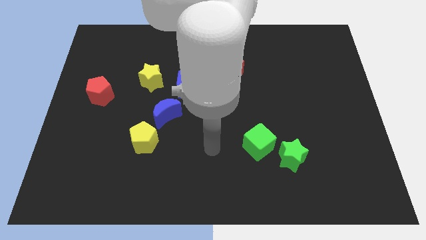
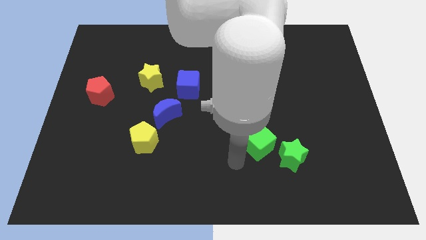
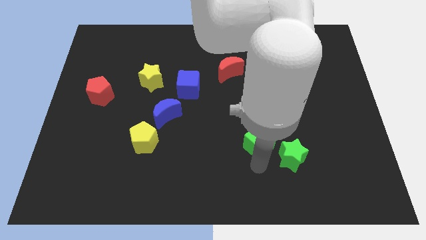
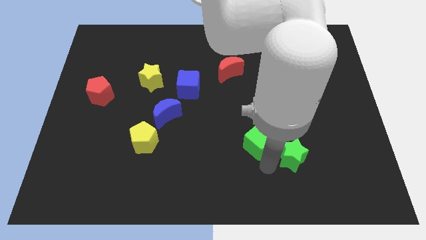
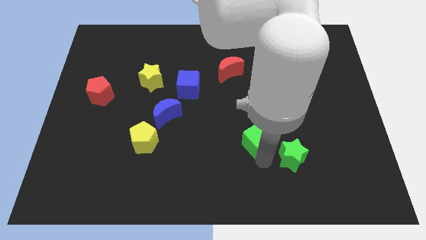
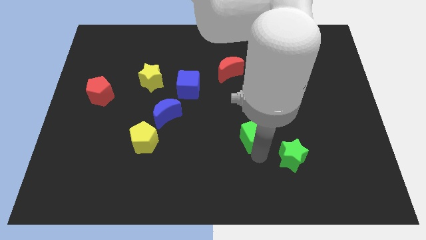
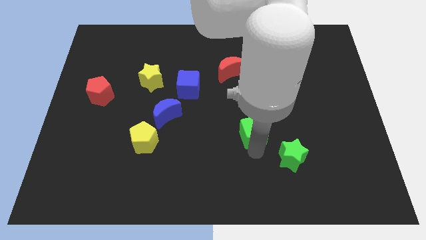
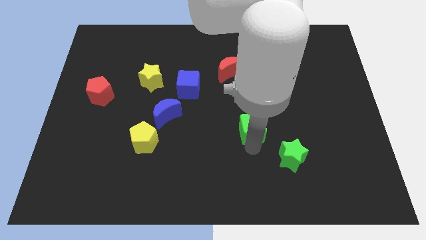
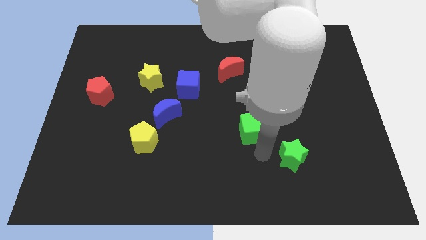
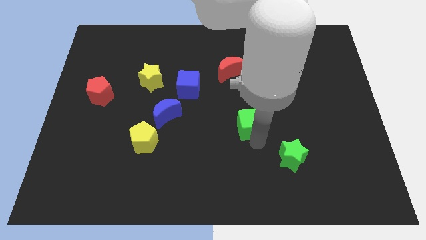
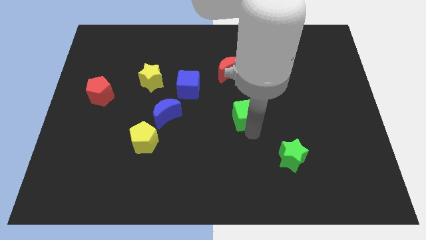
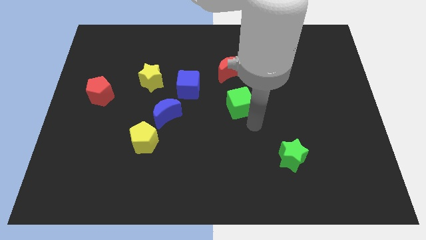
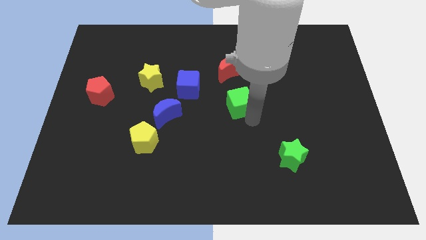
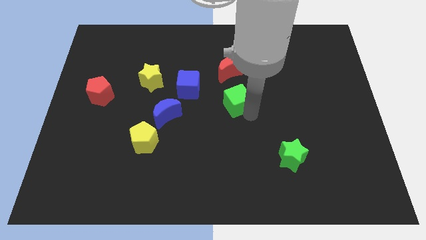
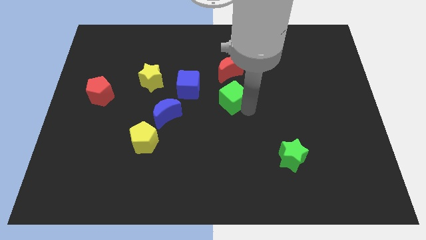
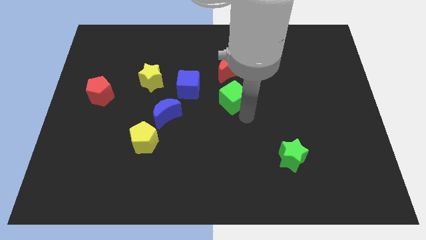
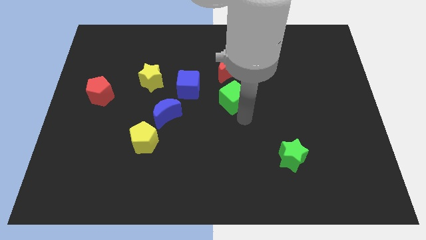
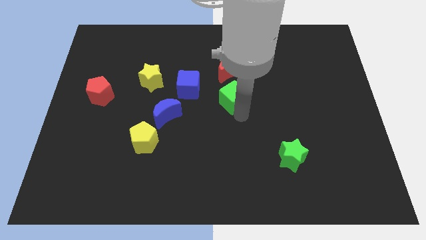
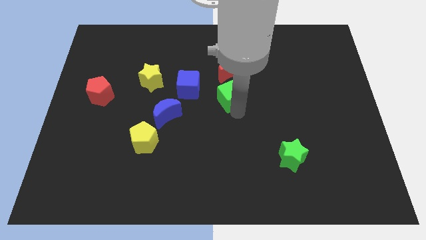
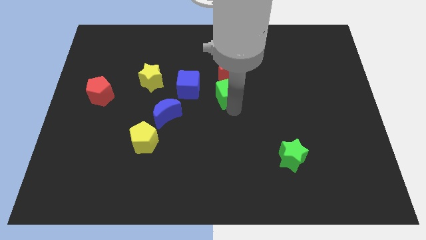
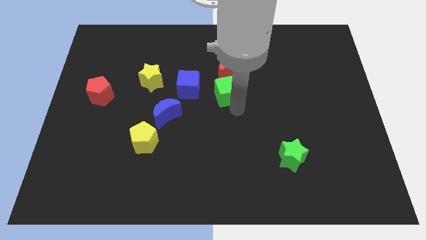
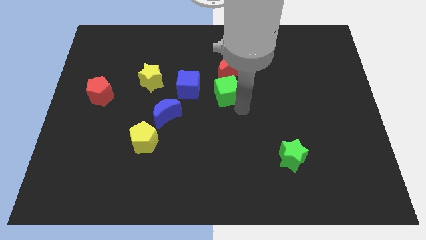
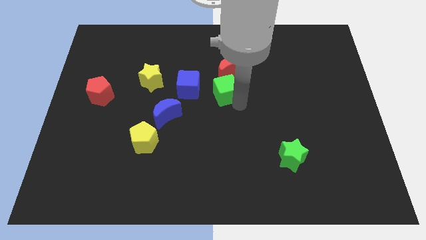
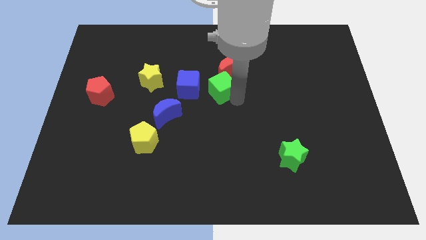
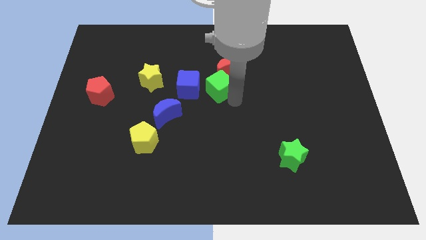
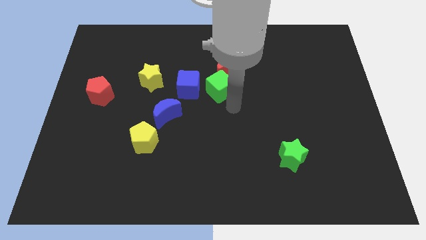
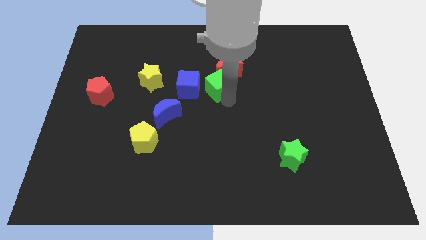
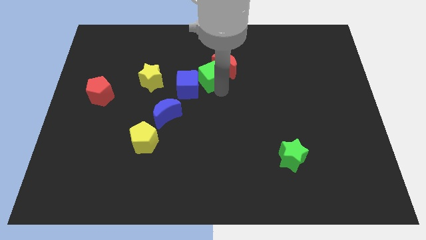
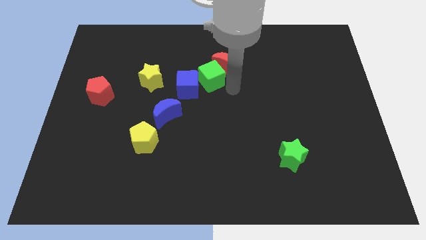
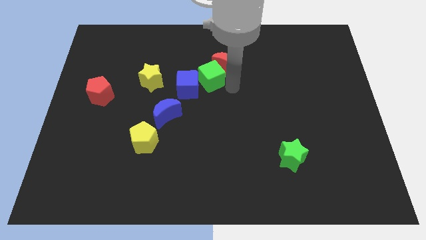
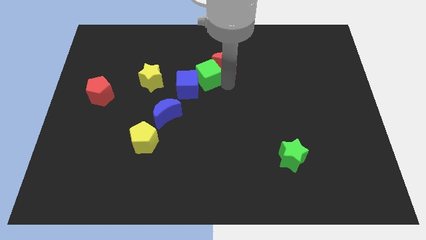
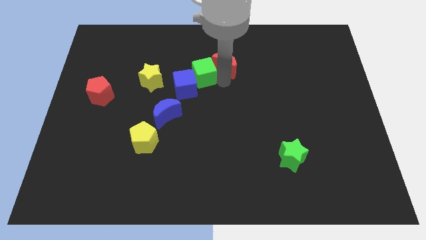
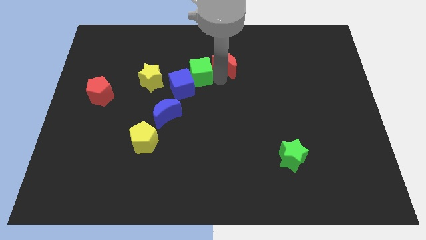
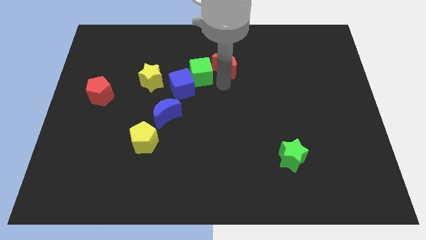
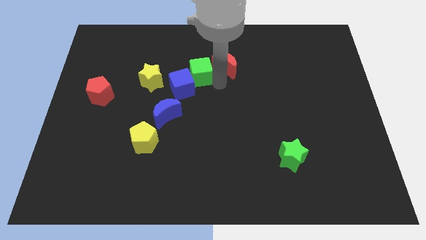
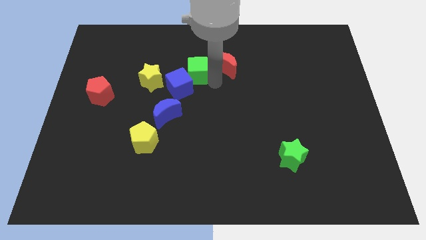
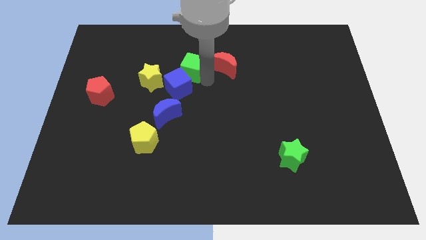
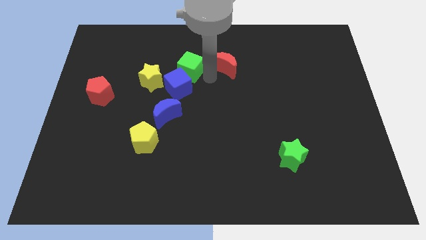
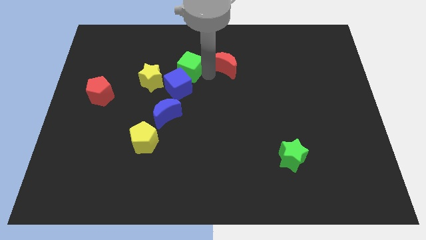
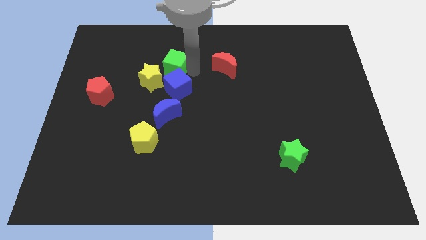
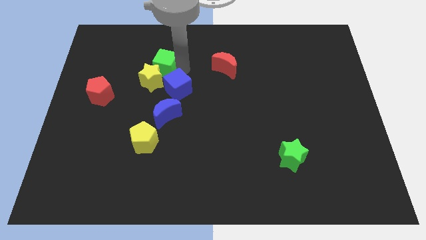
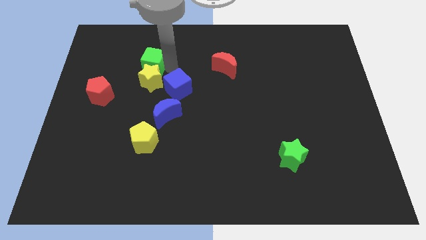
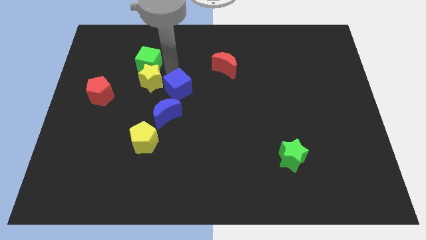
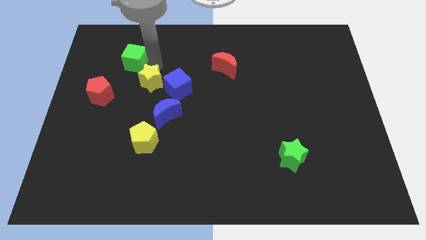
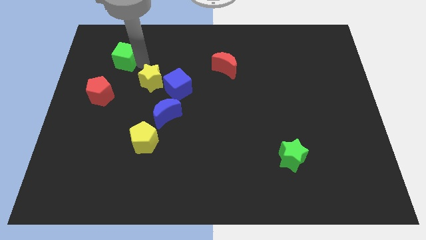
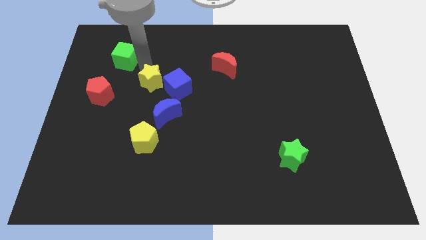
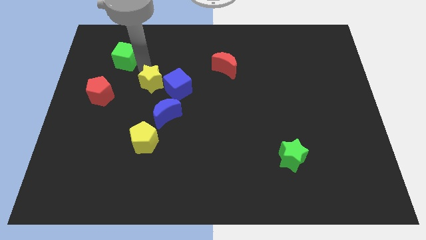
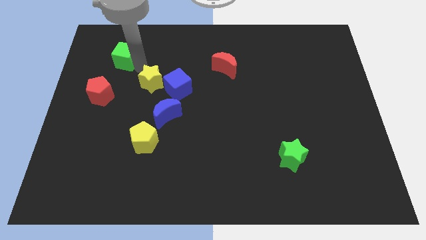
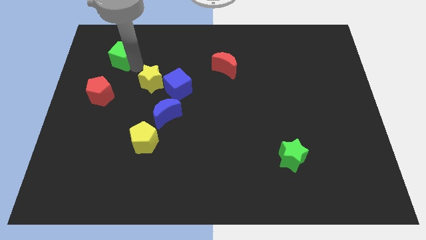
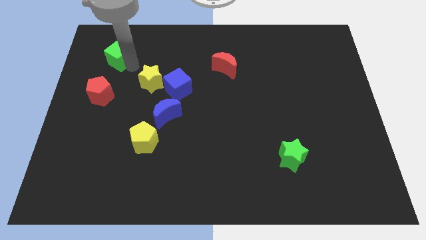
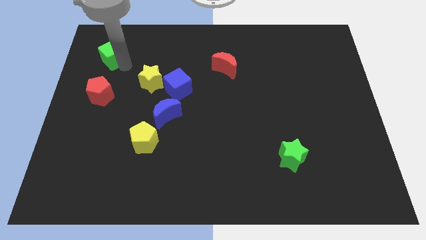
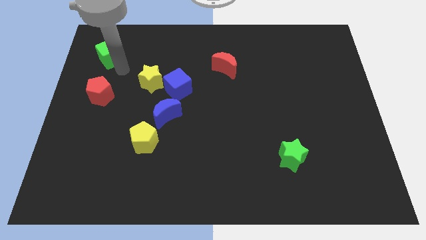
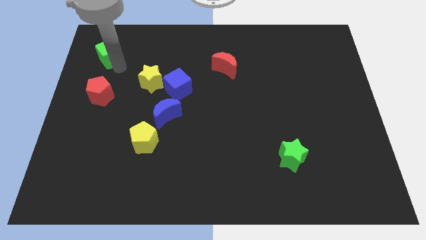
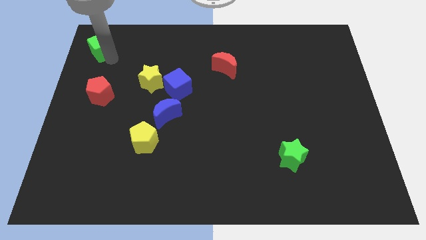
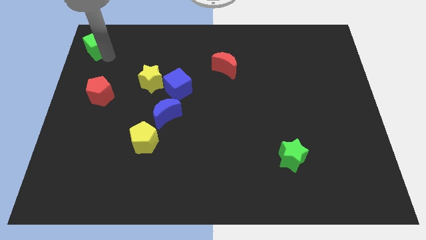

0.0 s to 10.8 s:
put the green cube to the top left
